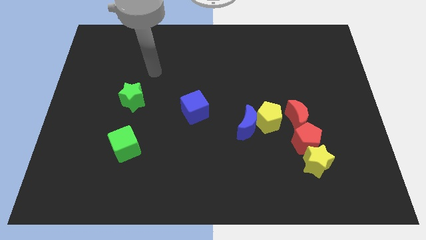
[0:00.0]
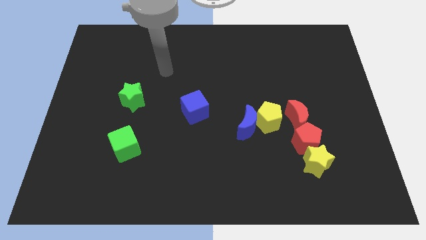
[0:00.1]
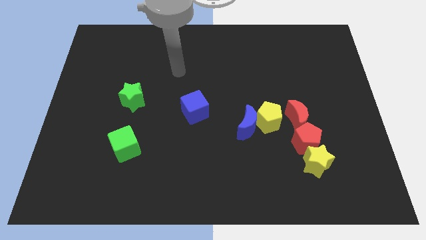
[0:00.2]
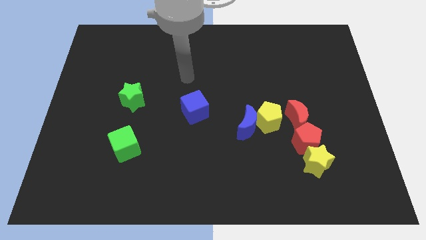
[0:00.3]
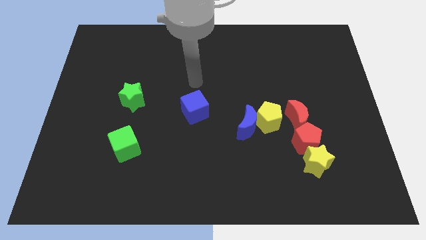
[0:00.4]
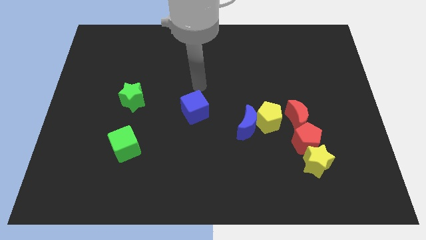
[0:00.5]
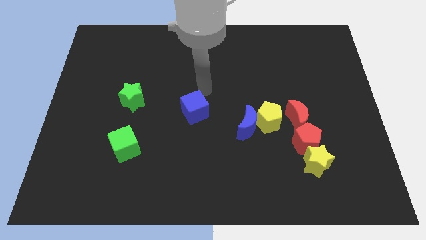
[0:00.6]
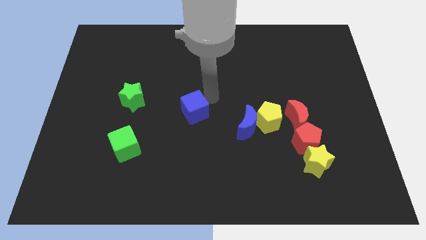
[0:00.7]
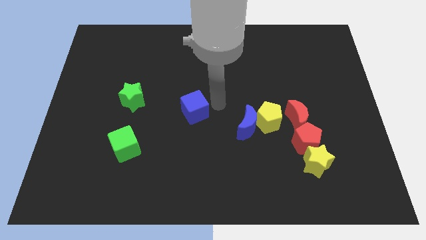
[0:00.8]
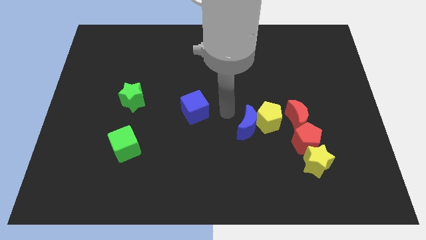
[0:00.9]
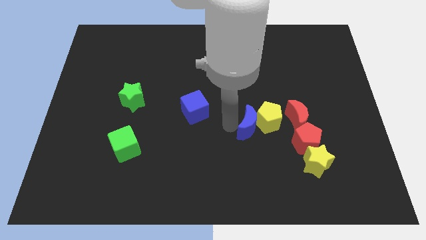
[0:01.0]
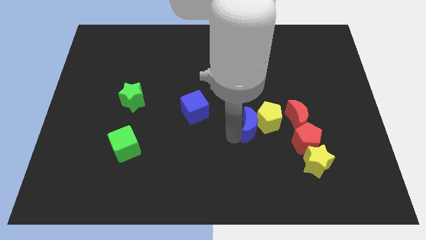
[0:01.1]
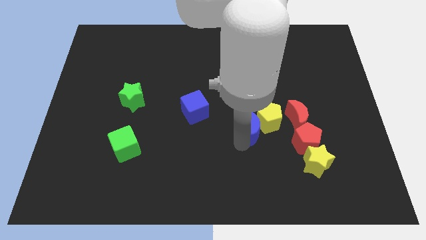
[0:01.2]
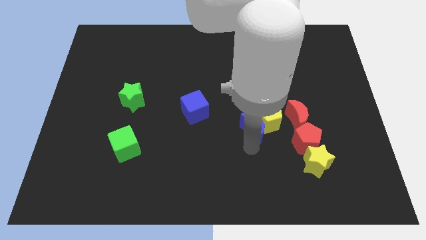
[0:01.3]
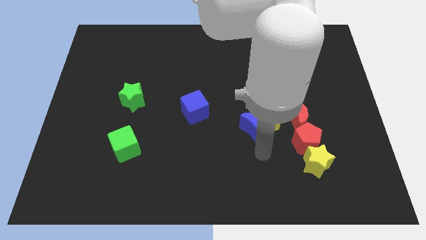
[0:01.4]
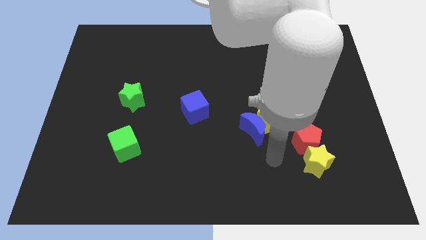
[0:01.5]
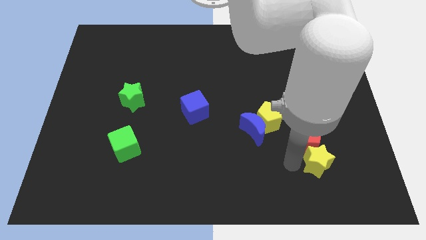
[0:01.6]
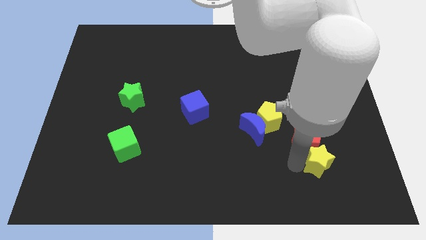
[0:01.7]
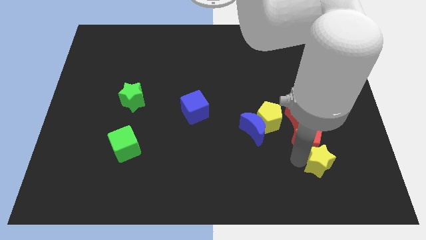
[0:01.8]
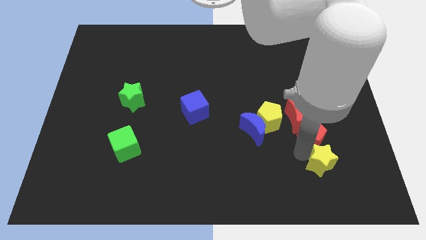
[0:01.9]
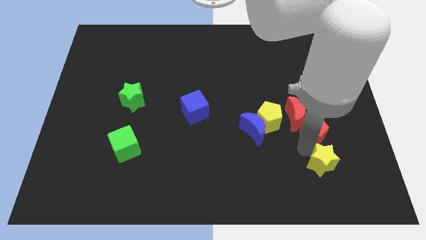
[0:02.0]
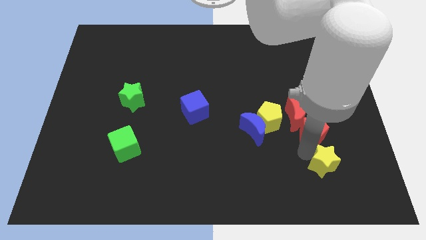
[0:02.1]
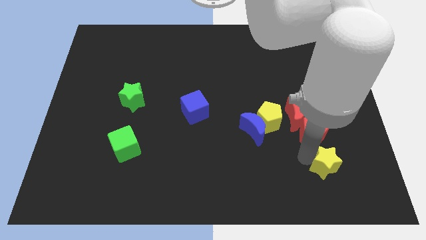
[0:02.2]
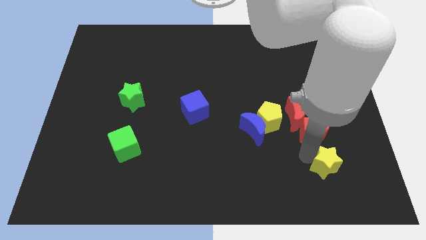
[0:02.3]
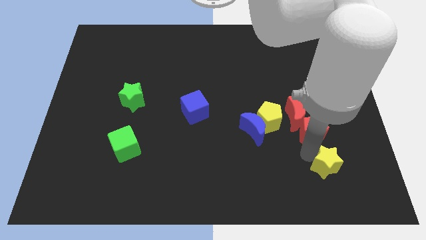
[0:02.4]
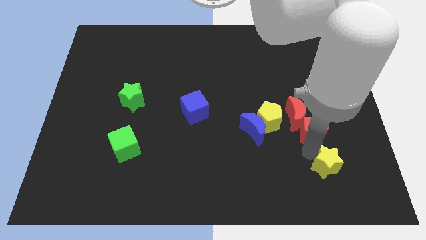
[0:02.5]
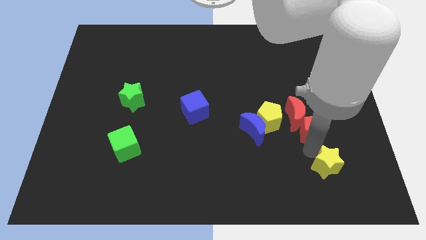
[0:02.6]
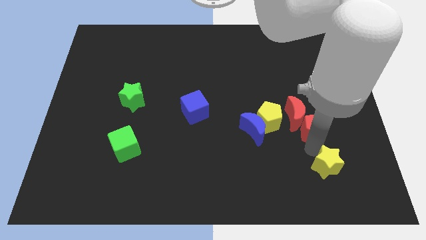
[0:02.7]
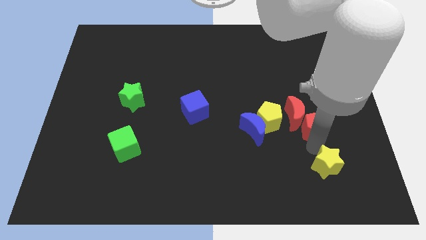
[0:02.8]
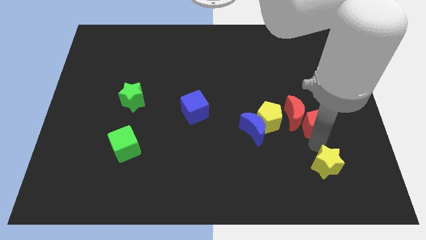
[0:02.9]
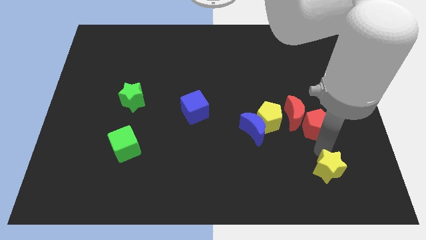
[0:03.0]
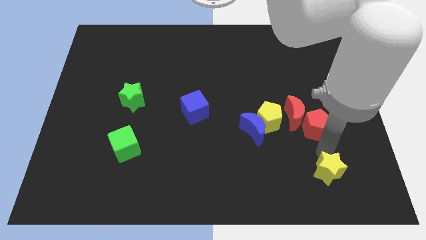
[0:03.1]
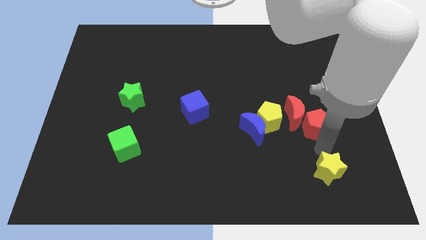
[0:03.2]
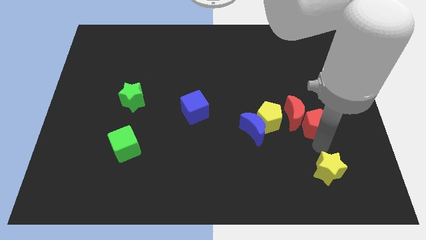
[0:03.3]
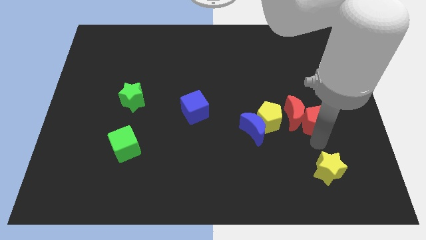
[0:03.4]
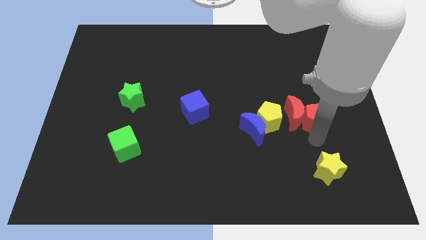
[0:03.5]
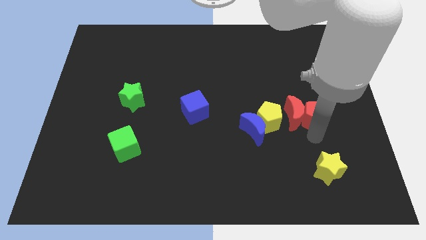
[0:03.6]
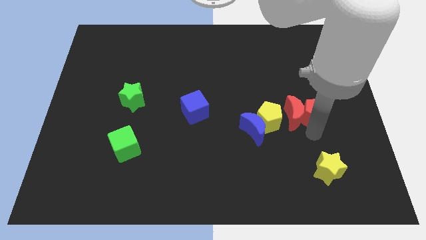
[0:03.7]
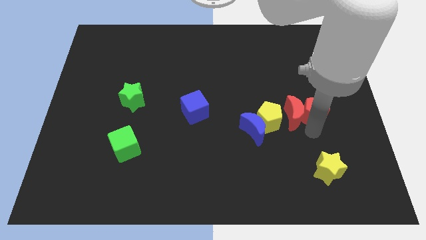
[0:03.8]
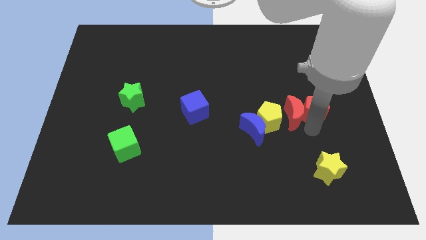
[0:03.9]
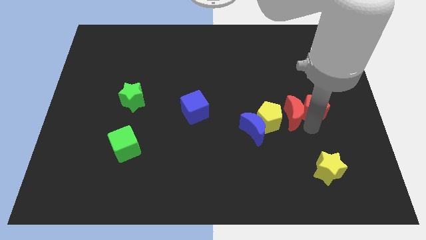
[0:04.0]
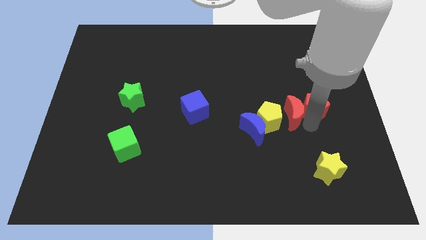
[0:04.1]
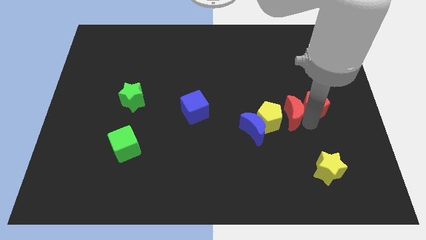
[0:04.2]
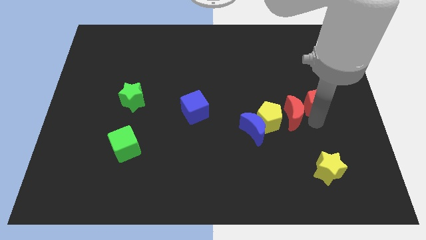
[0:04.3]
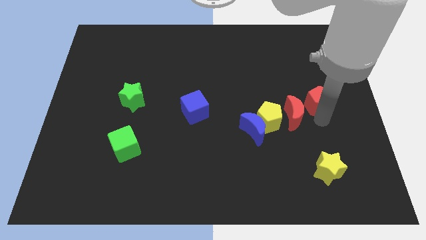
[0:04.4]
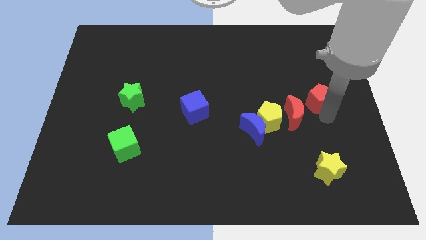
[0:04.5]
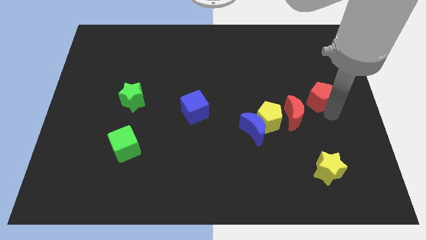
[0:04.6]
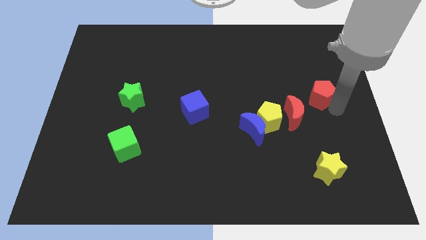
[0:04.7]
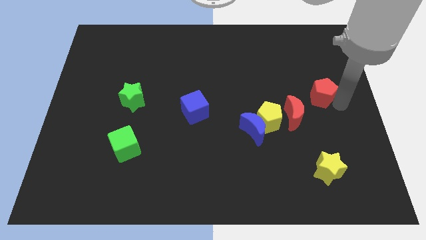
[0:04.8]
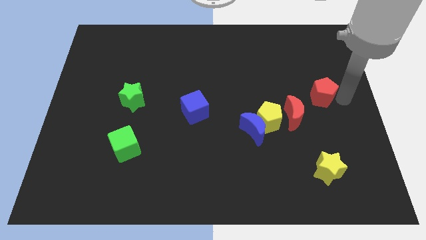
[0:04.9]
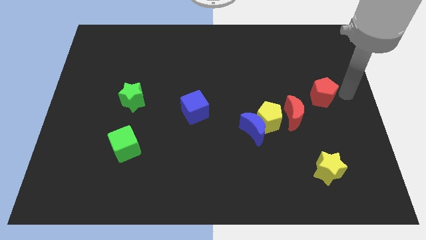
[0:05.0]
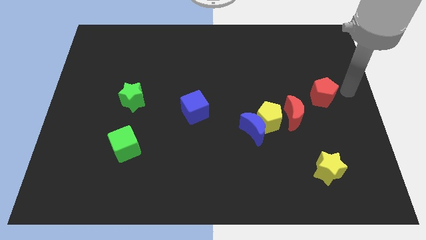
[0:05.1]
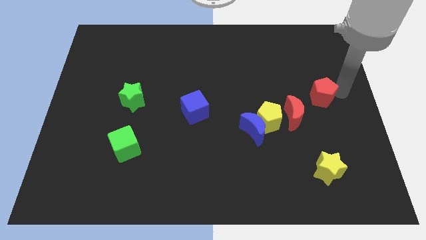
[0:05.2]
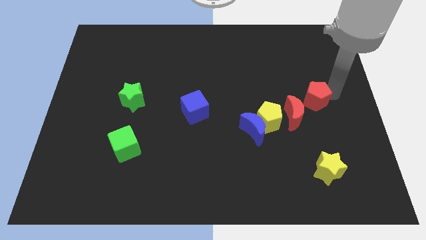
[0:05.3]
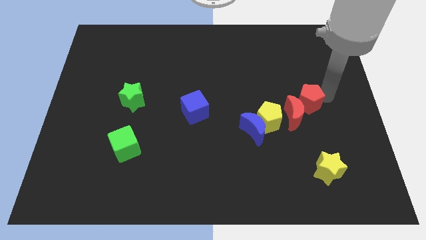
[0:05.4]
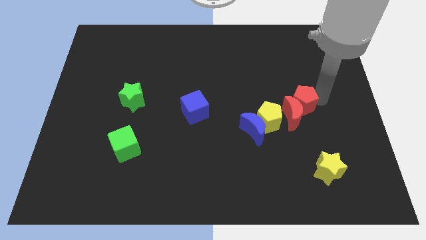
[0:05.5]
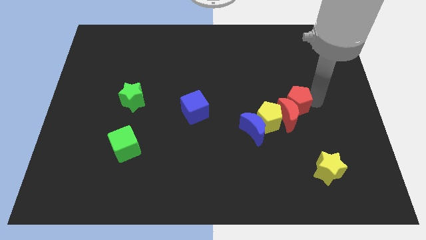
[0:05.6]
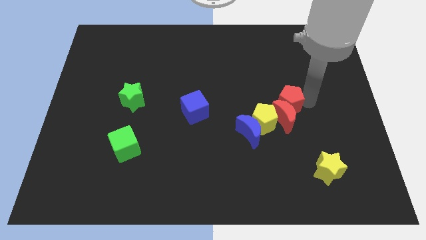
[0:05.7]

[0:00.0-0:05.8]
move the red pentagon to the top right side of the blue moon

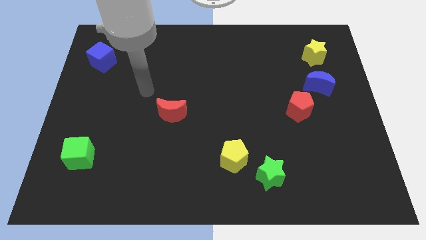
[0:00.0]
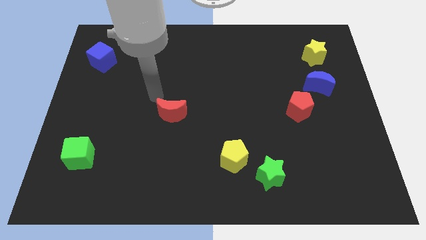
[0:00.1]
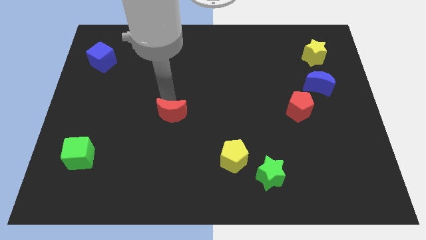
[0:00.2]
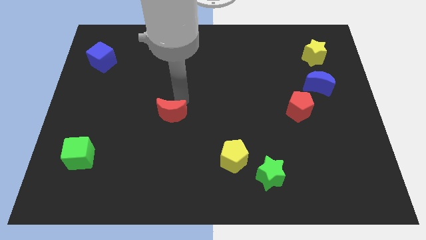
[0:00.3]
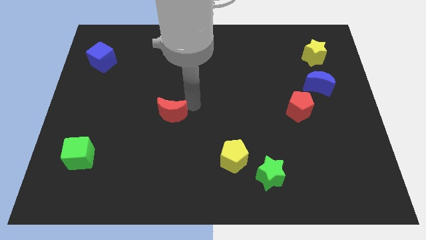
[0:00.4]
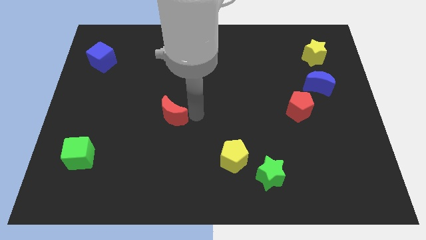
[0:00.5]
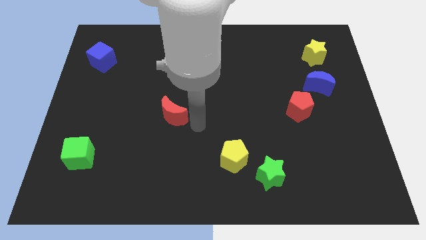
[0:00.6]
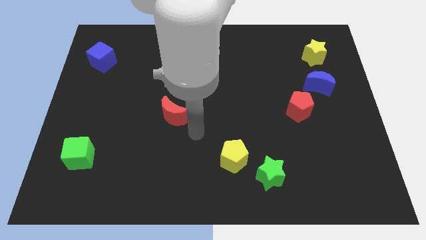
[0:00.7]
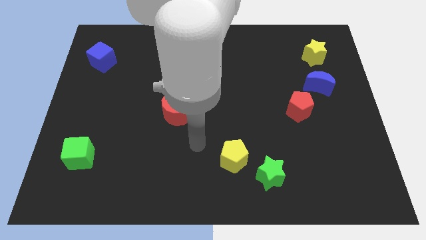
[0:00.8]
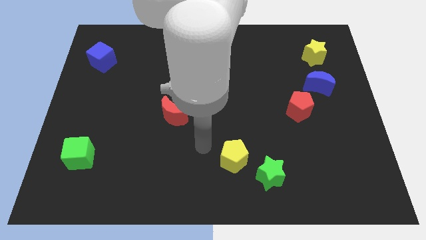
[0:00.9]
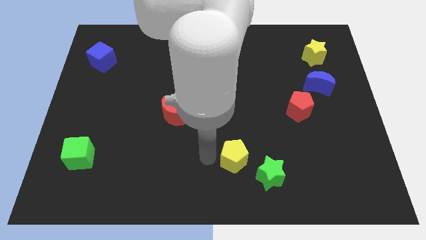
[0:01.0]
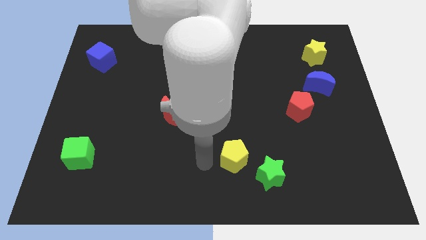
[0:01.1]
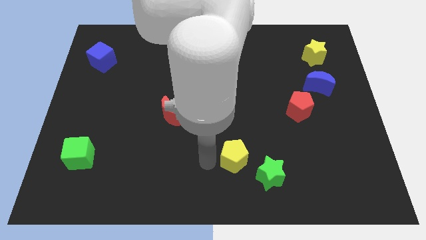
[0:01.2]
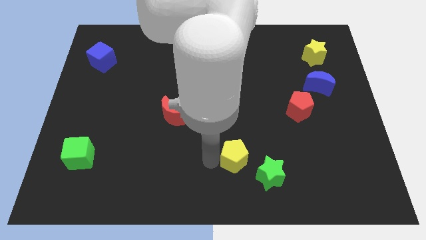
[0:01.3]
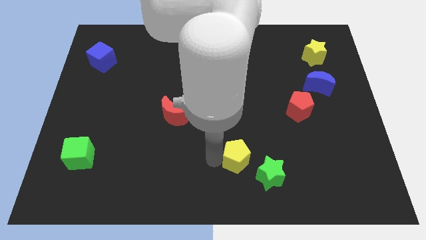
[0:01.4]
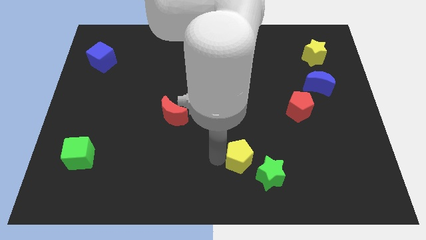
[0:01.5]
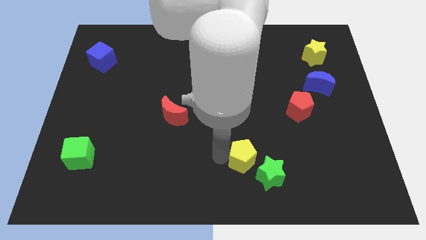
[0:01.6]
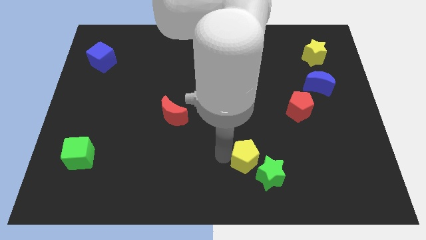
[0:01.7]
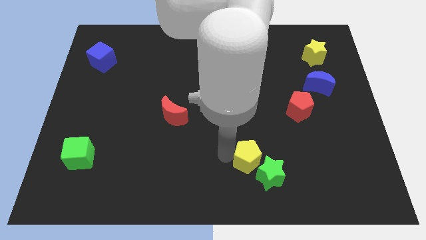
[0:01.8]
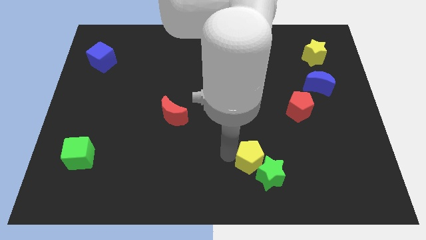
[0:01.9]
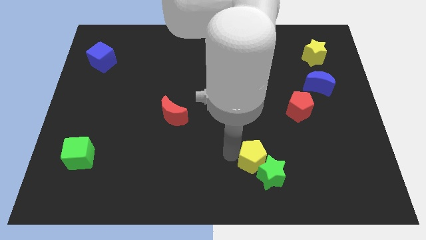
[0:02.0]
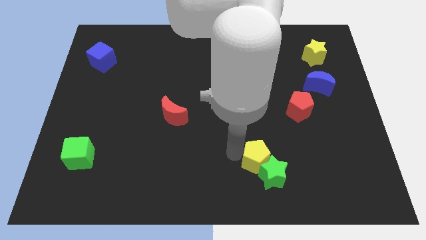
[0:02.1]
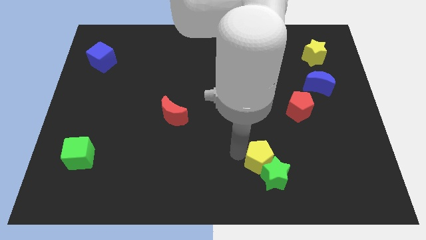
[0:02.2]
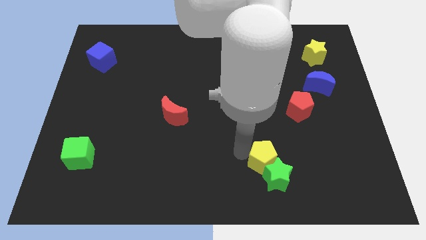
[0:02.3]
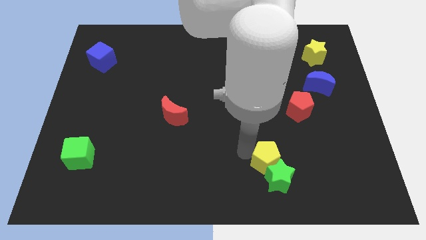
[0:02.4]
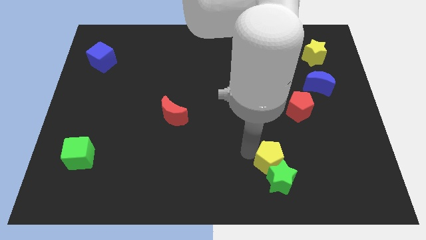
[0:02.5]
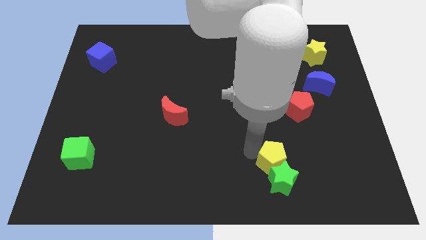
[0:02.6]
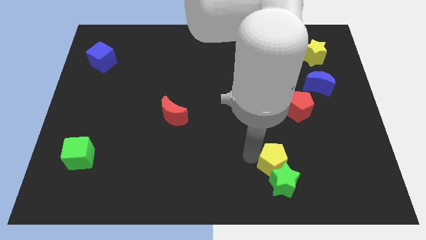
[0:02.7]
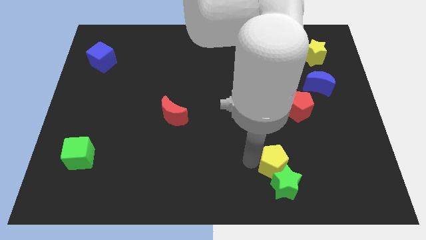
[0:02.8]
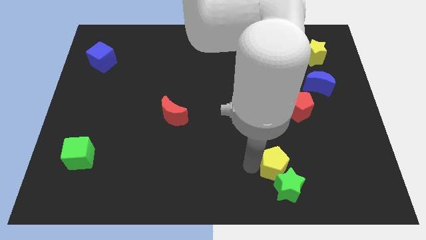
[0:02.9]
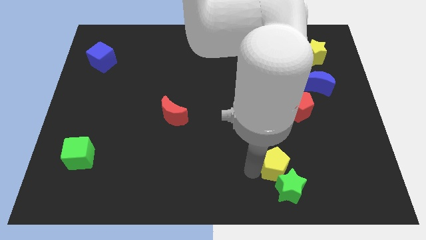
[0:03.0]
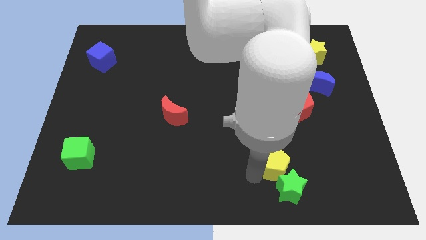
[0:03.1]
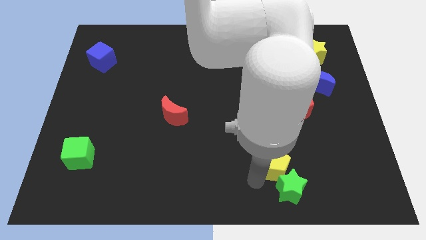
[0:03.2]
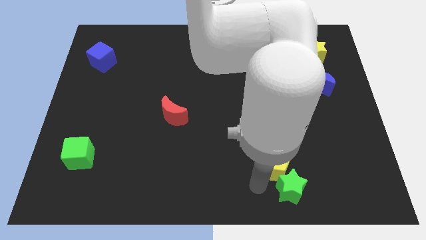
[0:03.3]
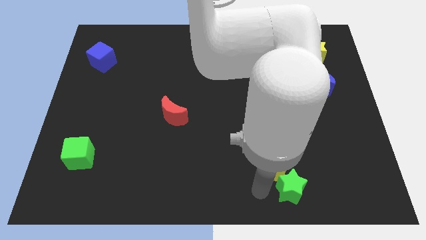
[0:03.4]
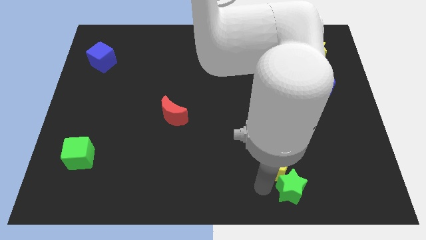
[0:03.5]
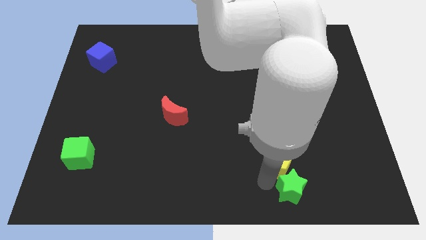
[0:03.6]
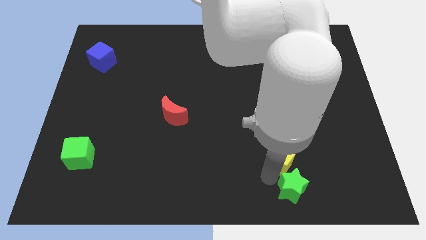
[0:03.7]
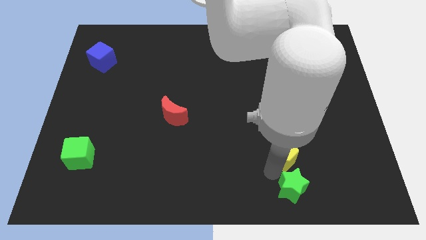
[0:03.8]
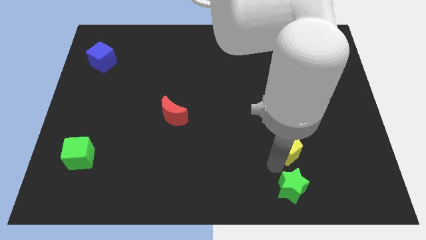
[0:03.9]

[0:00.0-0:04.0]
slide the yellow pentagon to the bottom of the red pentagon
